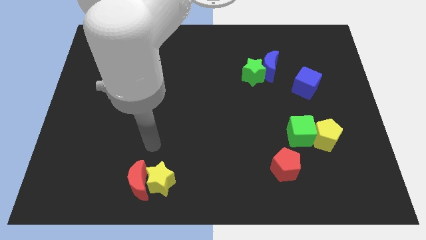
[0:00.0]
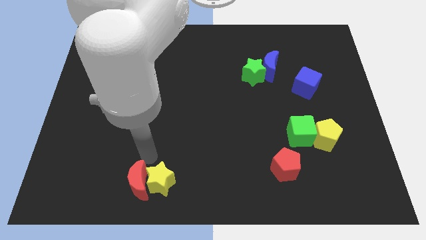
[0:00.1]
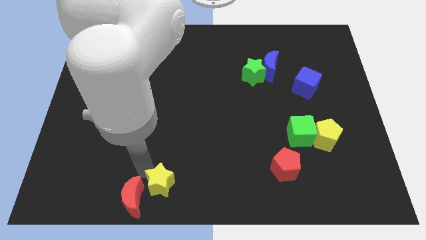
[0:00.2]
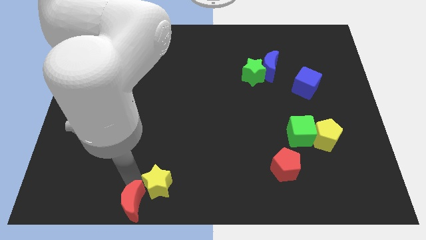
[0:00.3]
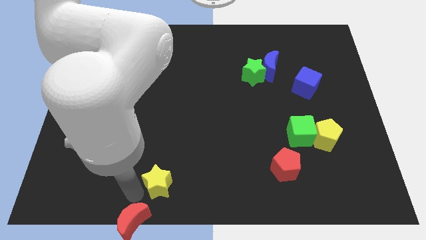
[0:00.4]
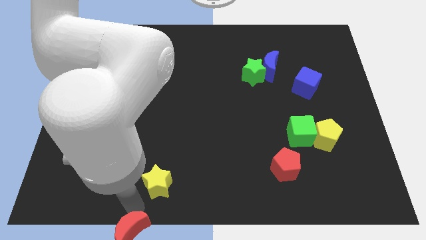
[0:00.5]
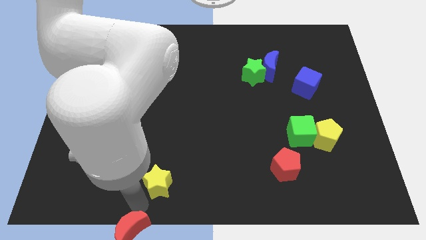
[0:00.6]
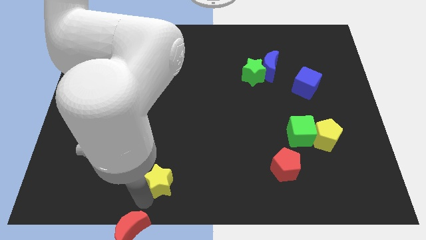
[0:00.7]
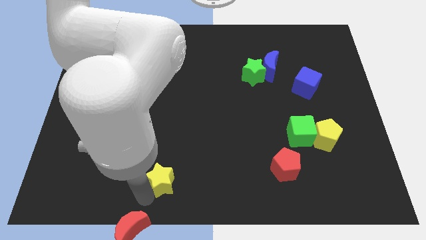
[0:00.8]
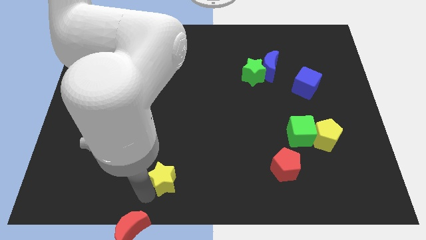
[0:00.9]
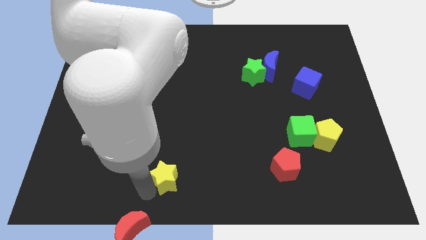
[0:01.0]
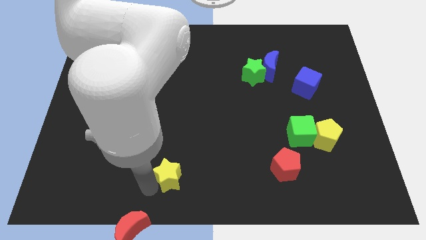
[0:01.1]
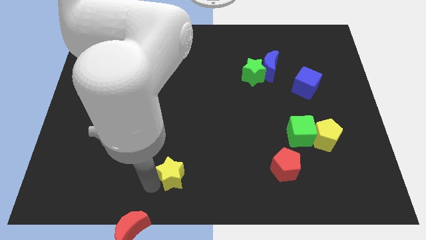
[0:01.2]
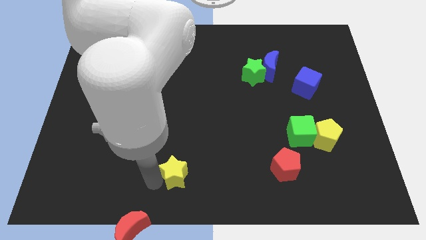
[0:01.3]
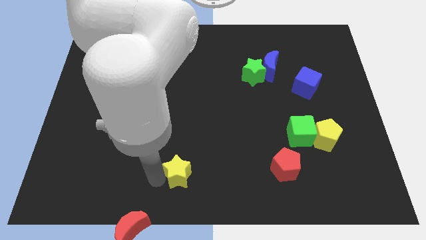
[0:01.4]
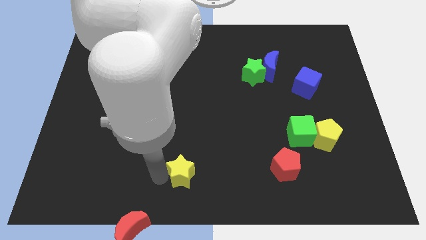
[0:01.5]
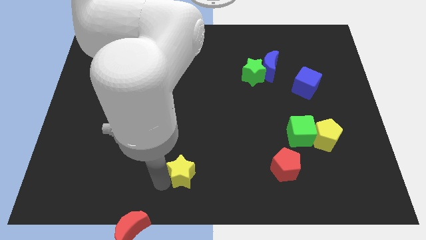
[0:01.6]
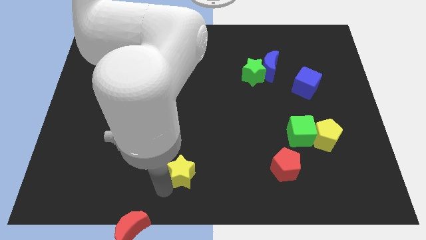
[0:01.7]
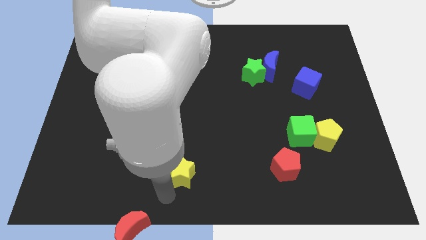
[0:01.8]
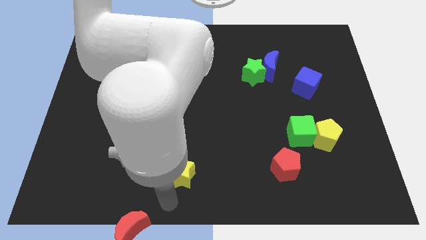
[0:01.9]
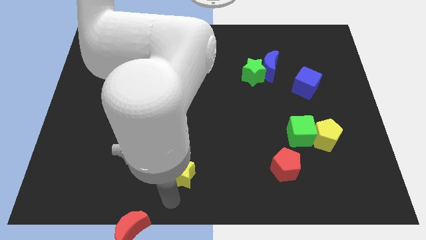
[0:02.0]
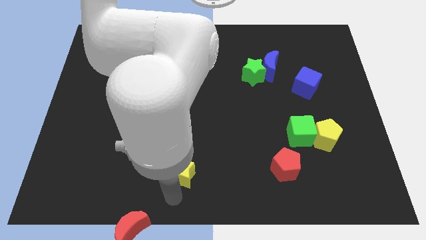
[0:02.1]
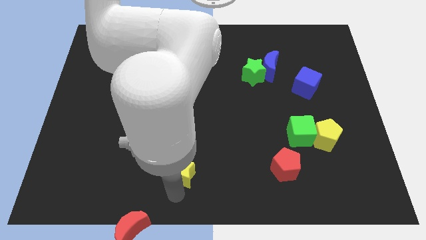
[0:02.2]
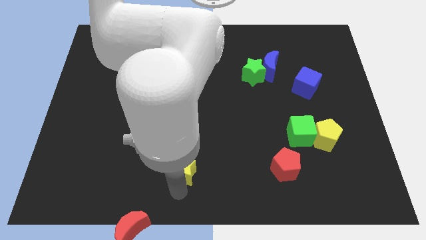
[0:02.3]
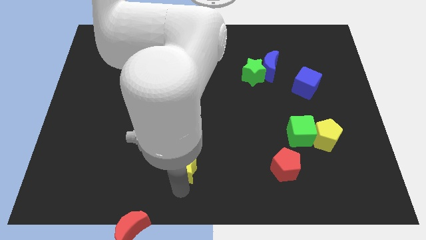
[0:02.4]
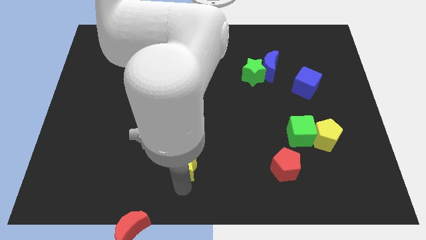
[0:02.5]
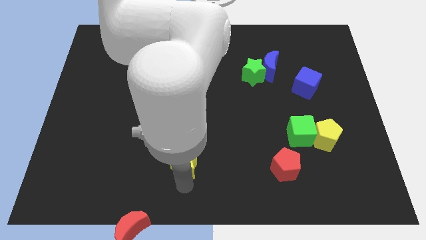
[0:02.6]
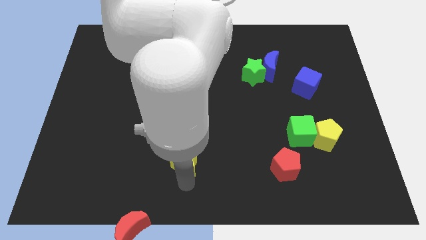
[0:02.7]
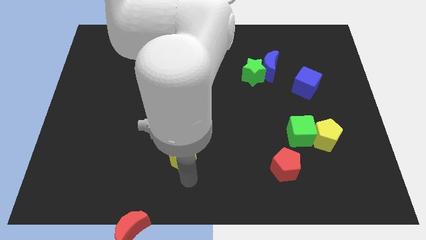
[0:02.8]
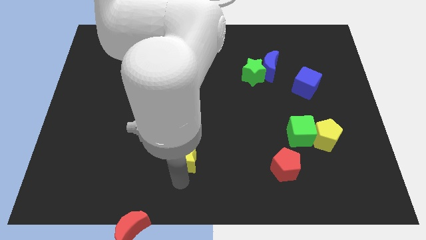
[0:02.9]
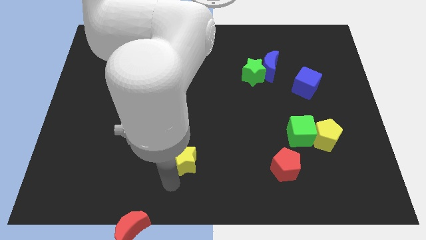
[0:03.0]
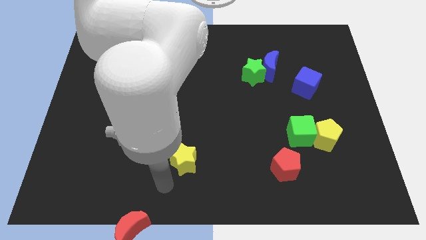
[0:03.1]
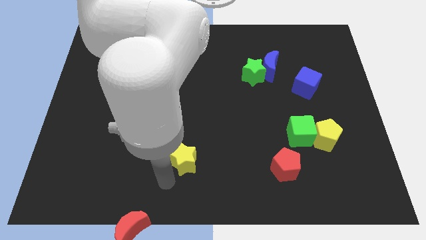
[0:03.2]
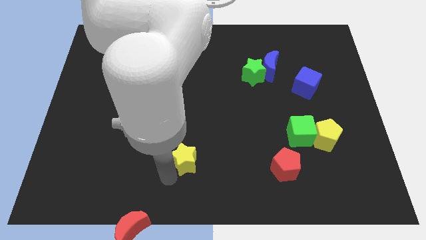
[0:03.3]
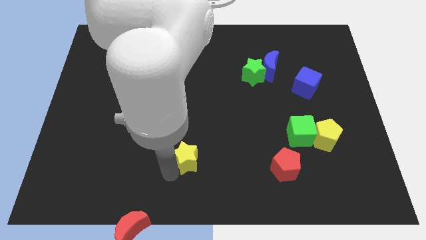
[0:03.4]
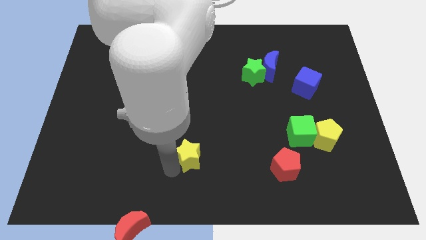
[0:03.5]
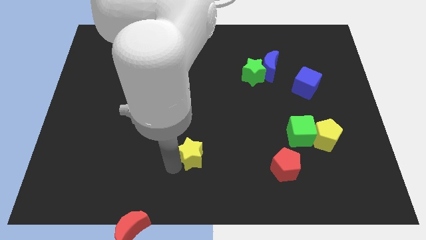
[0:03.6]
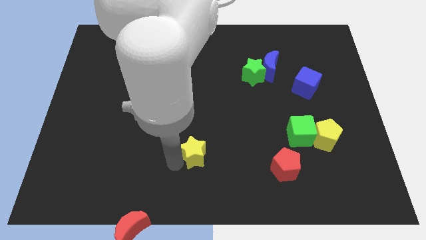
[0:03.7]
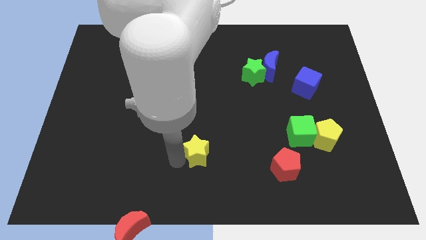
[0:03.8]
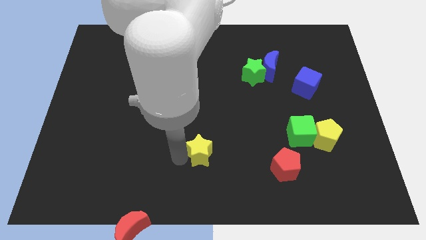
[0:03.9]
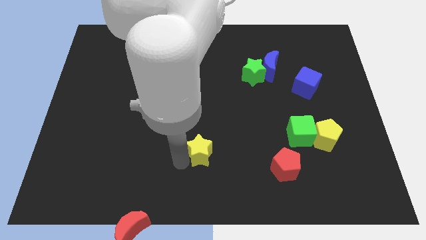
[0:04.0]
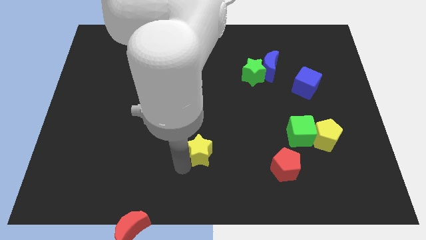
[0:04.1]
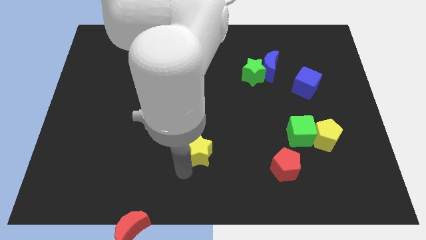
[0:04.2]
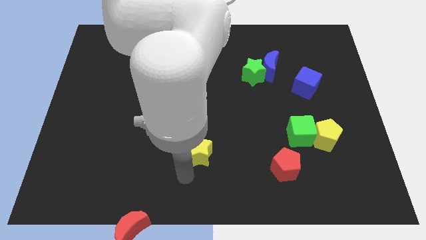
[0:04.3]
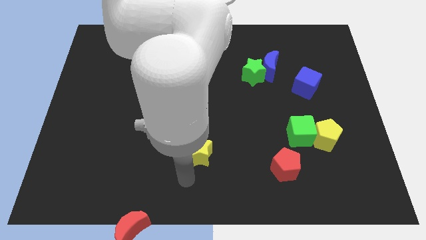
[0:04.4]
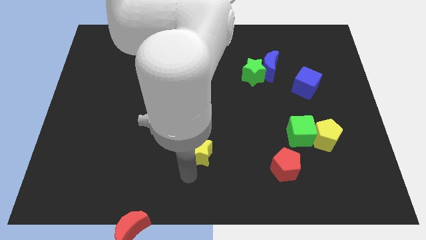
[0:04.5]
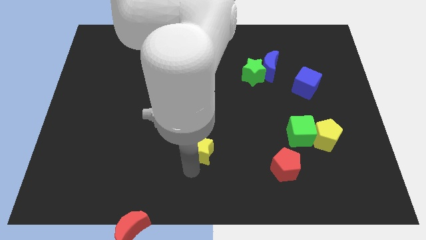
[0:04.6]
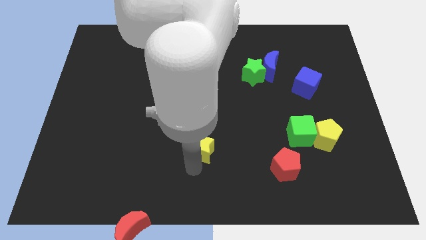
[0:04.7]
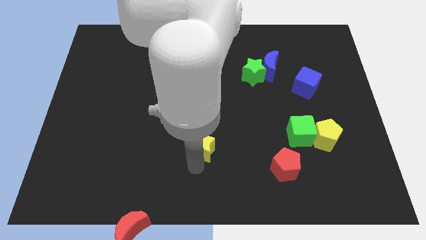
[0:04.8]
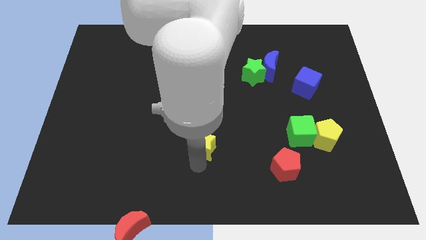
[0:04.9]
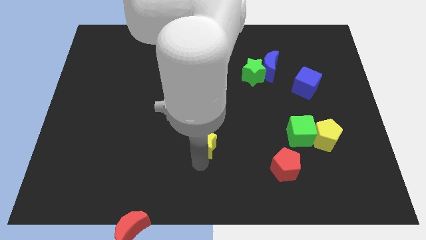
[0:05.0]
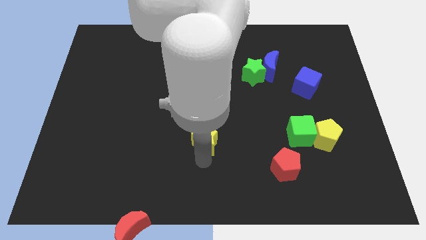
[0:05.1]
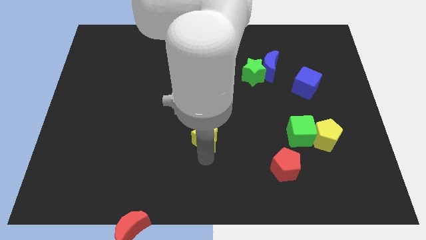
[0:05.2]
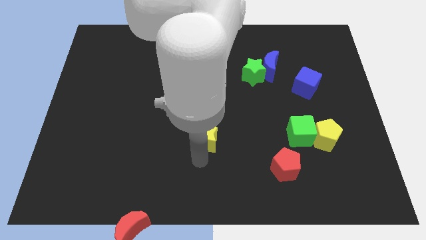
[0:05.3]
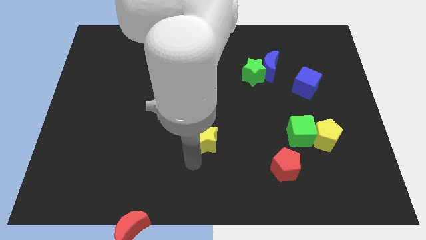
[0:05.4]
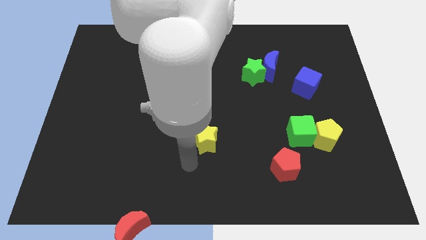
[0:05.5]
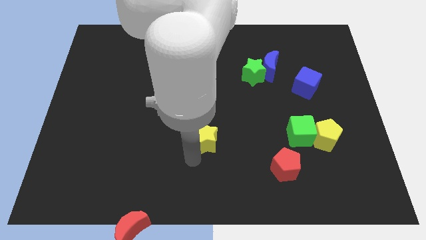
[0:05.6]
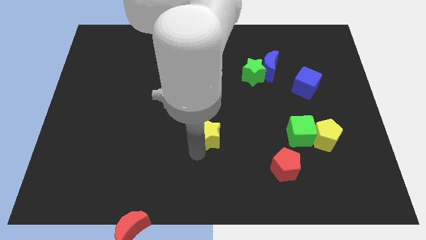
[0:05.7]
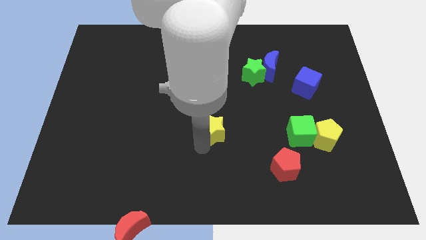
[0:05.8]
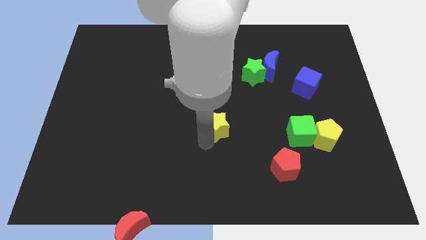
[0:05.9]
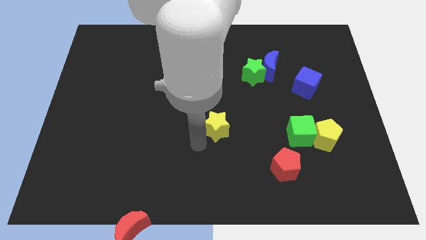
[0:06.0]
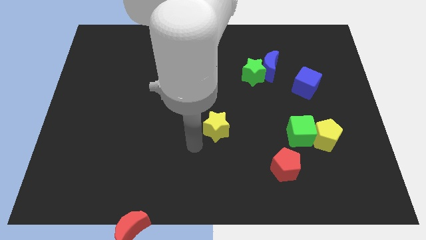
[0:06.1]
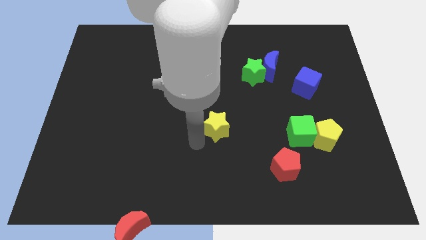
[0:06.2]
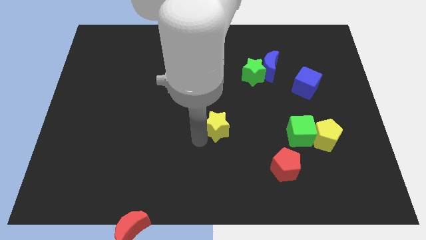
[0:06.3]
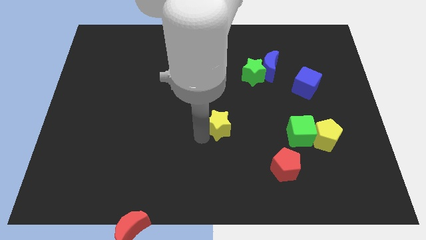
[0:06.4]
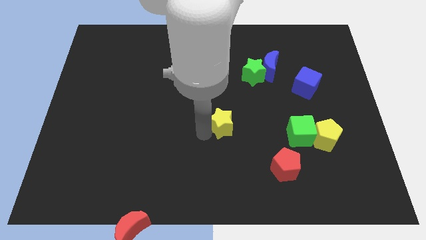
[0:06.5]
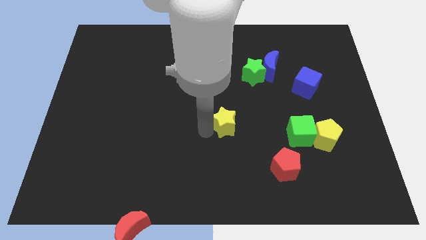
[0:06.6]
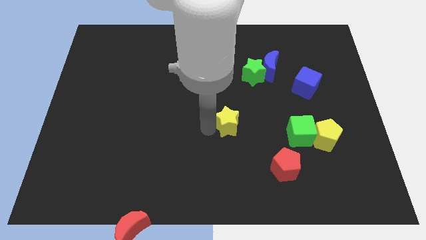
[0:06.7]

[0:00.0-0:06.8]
move the yellow star diagonally up and right

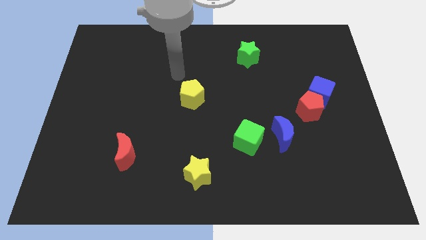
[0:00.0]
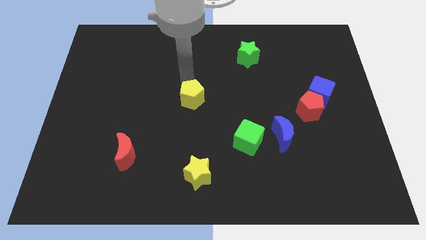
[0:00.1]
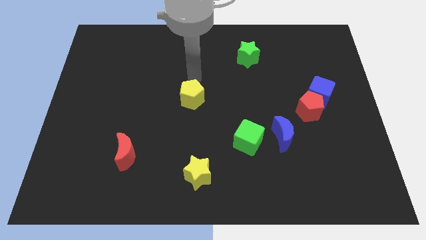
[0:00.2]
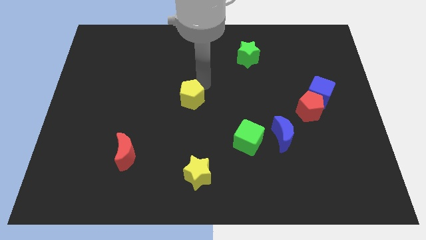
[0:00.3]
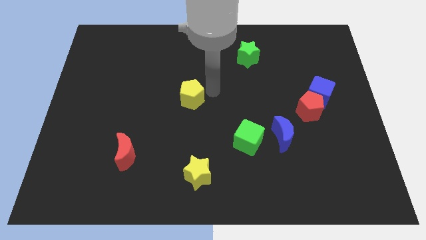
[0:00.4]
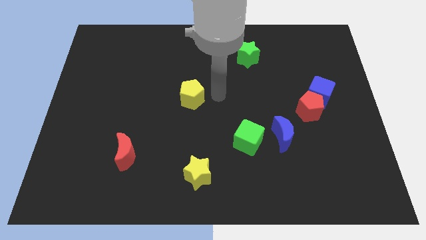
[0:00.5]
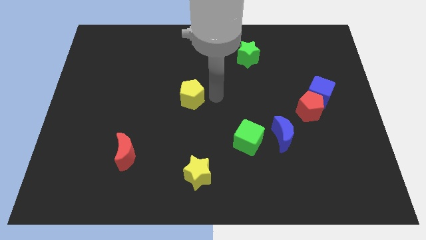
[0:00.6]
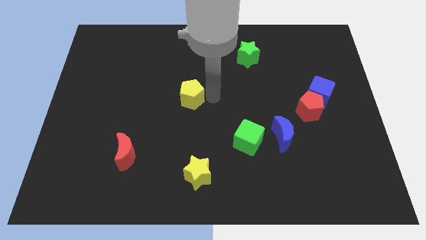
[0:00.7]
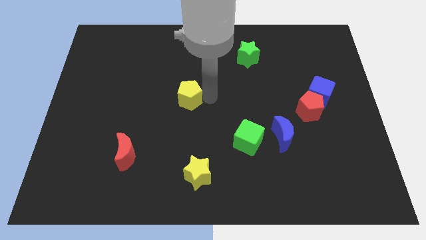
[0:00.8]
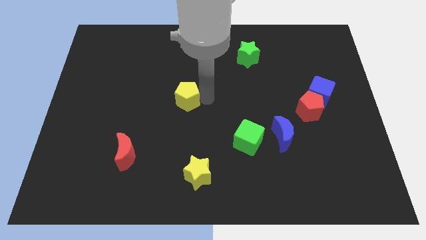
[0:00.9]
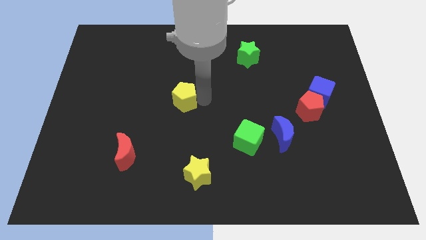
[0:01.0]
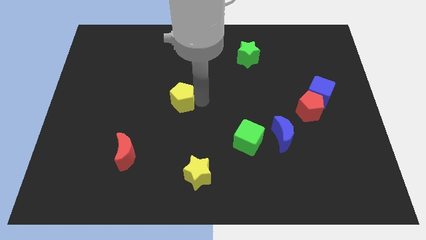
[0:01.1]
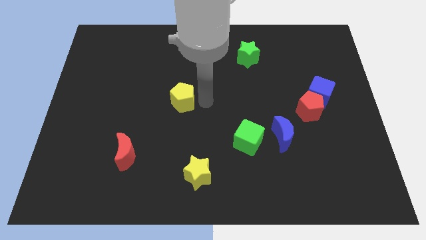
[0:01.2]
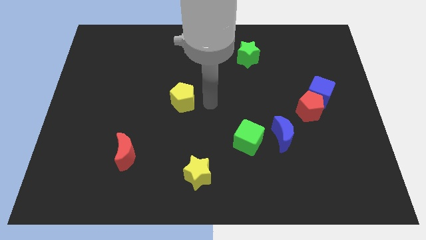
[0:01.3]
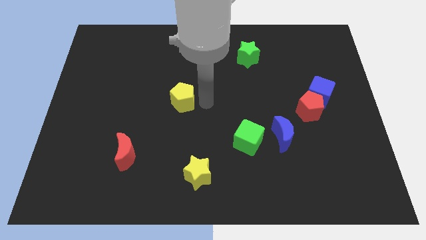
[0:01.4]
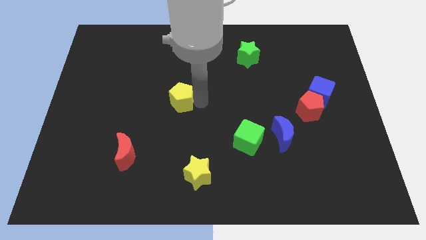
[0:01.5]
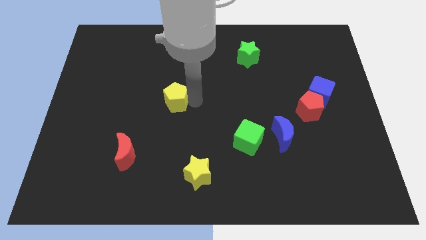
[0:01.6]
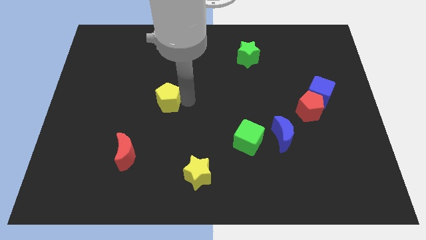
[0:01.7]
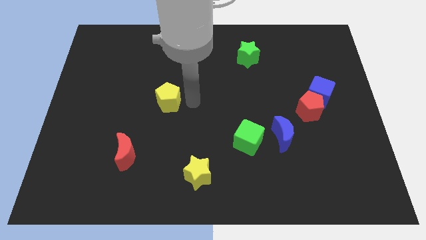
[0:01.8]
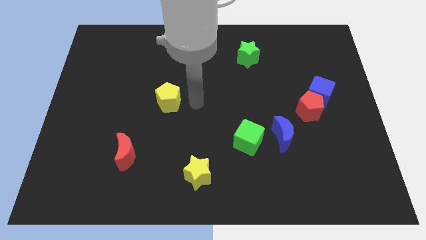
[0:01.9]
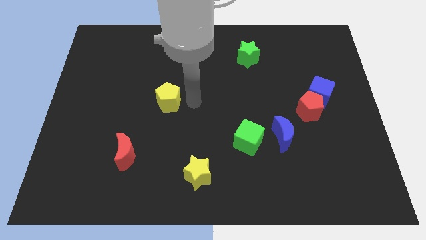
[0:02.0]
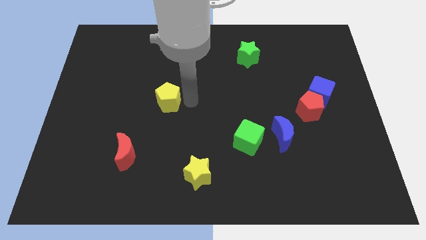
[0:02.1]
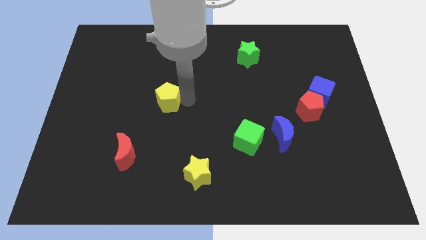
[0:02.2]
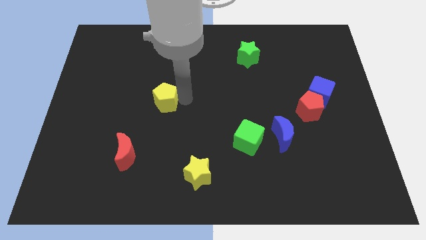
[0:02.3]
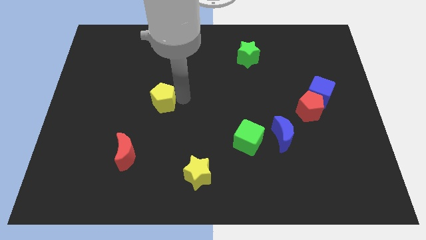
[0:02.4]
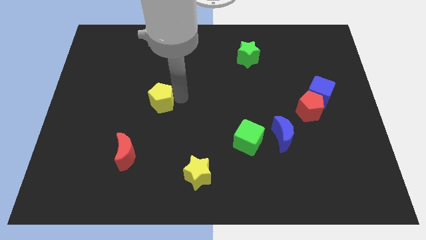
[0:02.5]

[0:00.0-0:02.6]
move the yellow pentagon left a bit
